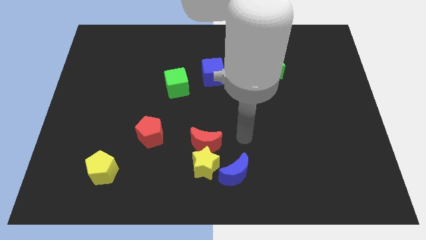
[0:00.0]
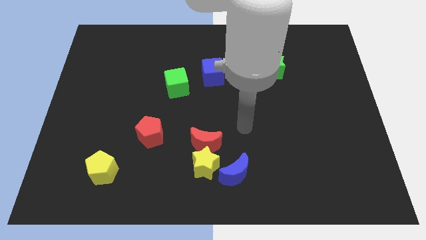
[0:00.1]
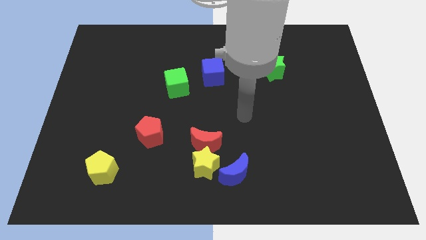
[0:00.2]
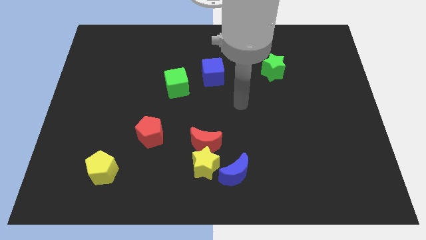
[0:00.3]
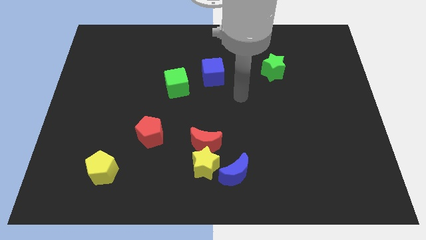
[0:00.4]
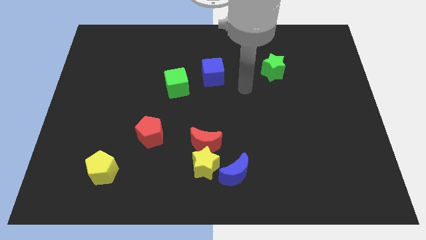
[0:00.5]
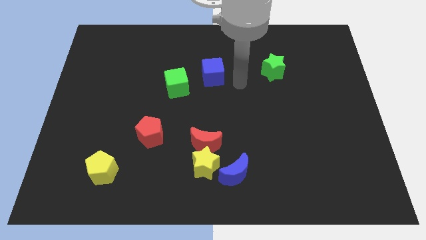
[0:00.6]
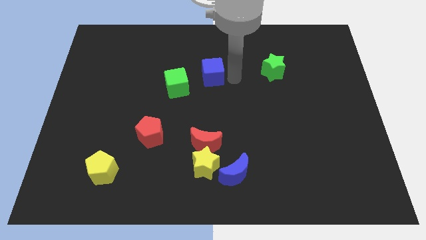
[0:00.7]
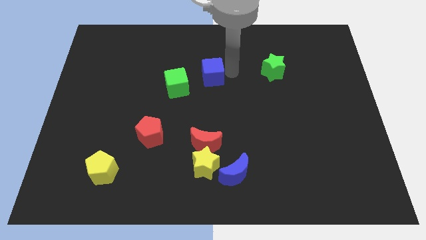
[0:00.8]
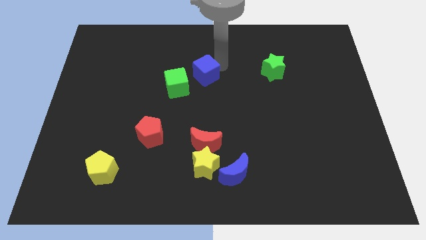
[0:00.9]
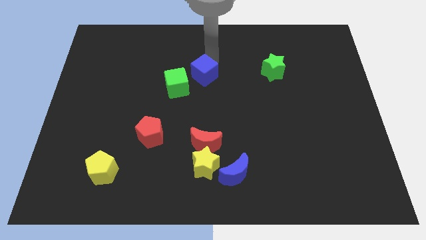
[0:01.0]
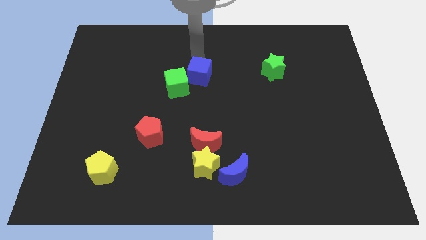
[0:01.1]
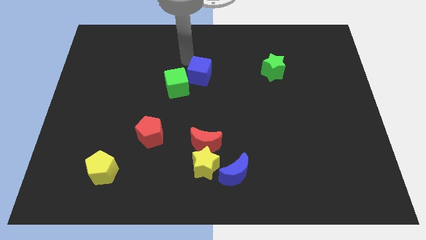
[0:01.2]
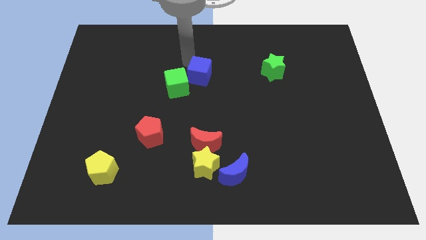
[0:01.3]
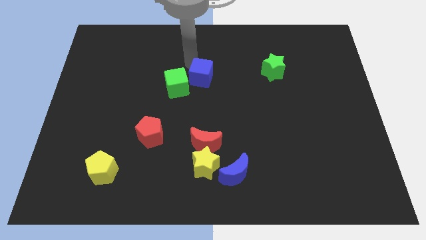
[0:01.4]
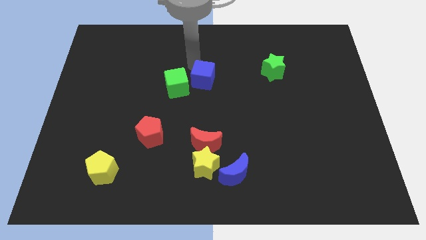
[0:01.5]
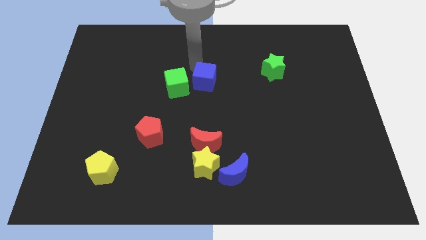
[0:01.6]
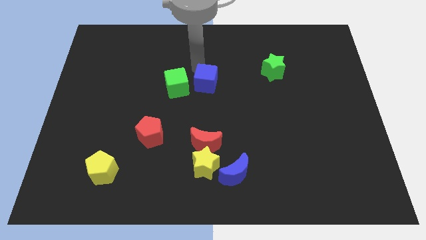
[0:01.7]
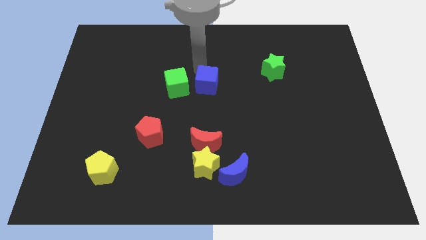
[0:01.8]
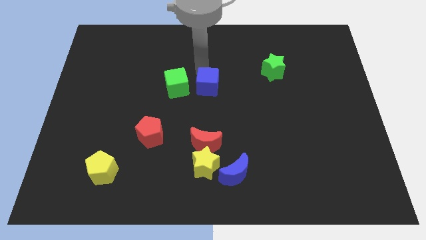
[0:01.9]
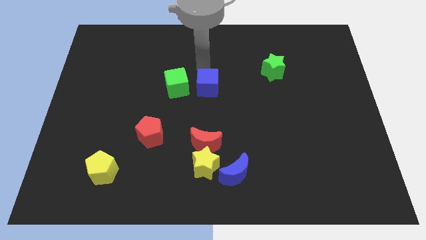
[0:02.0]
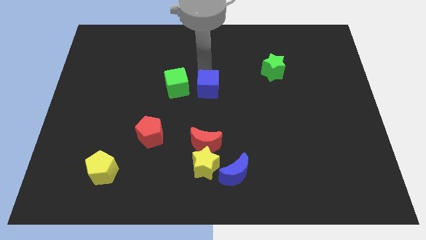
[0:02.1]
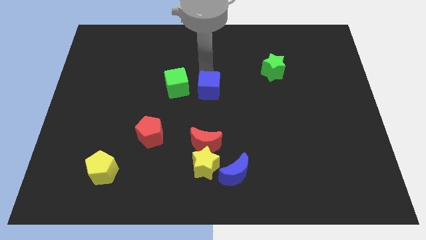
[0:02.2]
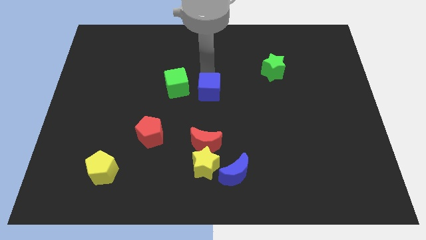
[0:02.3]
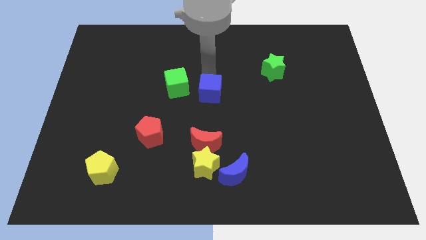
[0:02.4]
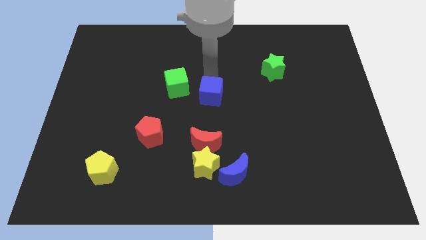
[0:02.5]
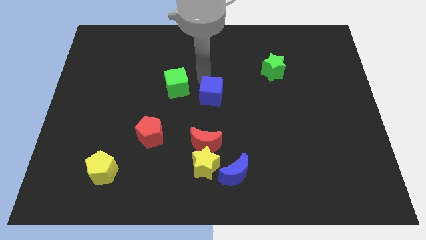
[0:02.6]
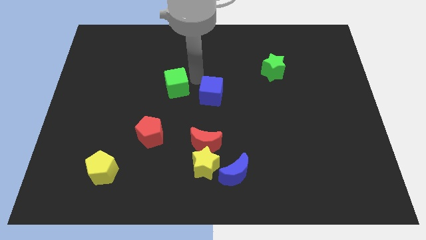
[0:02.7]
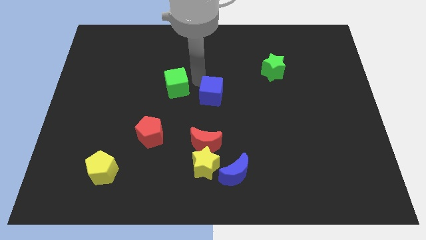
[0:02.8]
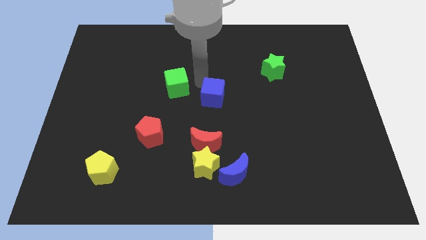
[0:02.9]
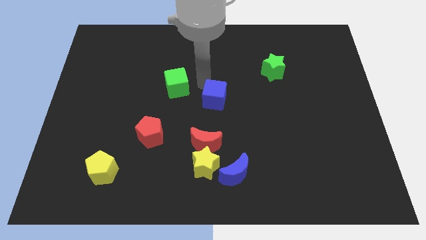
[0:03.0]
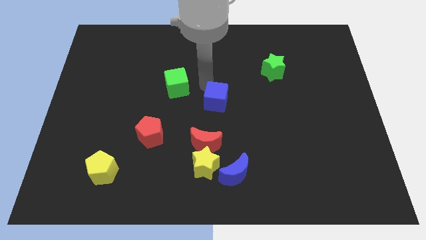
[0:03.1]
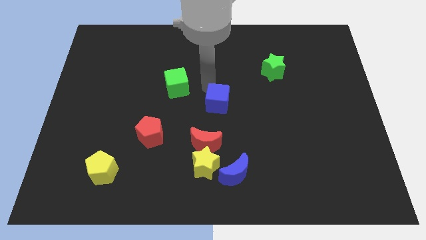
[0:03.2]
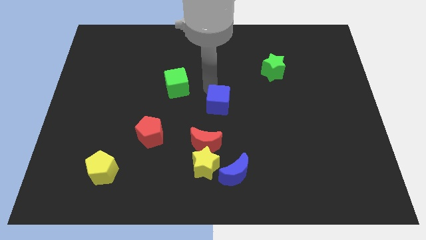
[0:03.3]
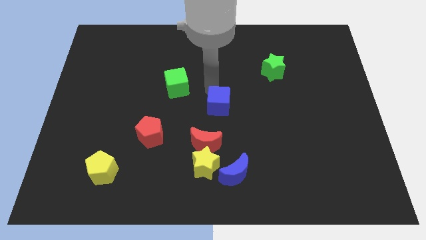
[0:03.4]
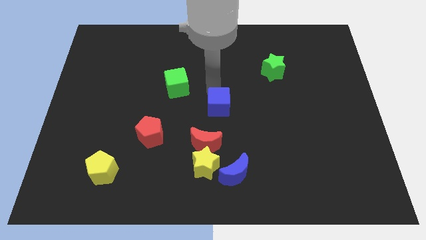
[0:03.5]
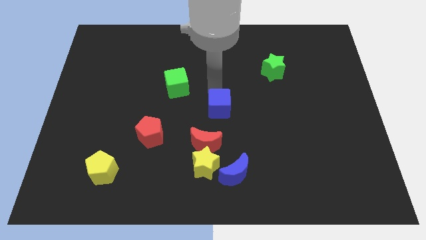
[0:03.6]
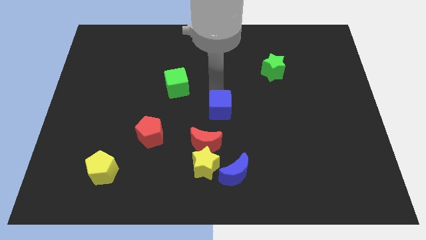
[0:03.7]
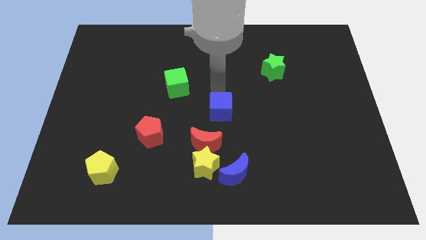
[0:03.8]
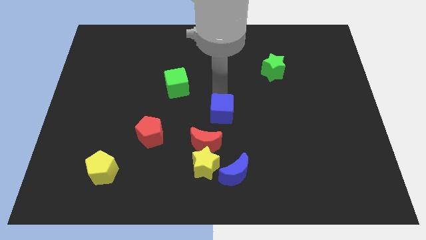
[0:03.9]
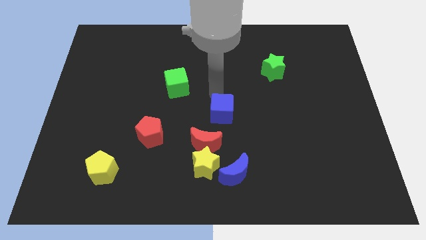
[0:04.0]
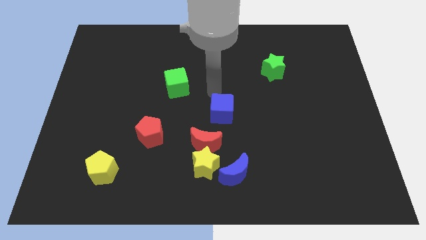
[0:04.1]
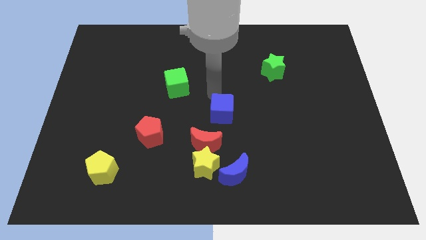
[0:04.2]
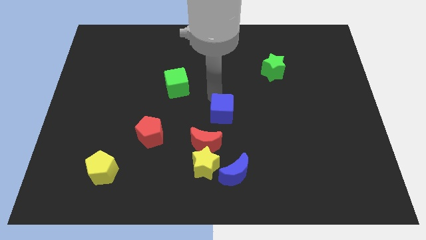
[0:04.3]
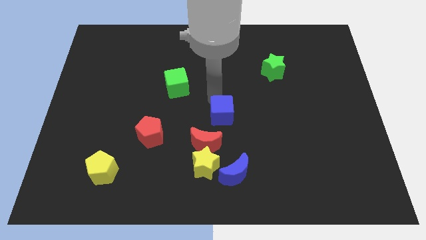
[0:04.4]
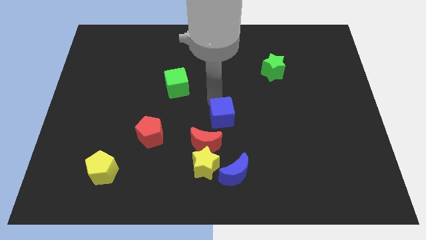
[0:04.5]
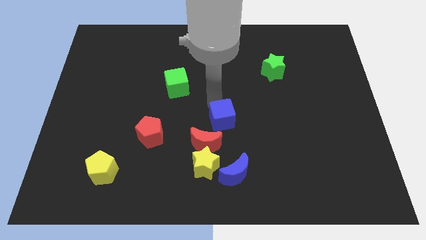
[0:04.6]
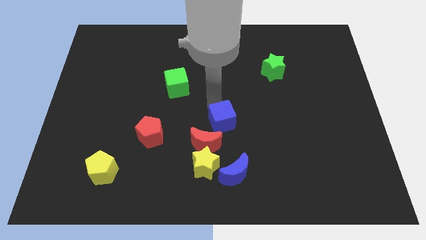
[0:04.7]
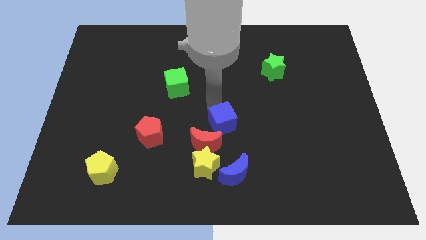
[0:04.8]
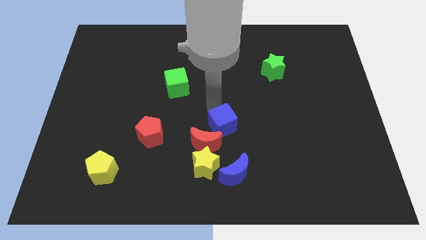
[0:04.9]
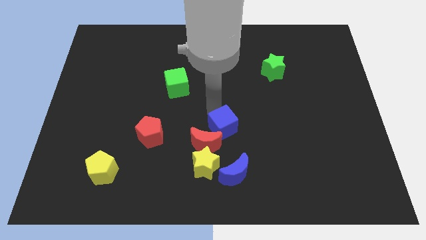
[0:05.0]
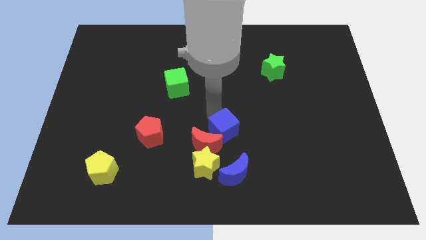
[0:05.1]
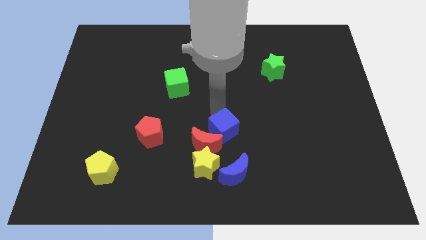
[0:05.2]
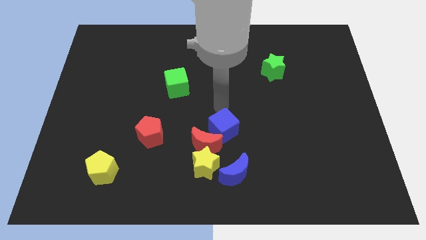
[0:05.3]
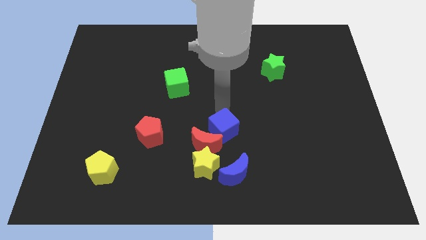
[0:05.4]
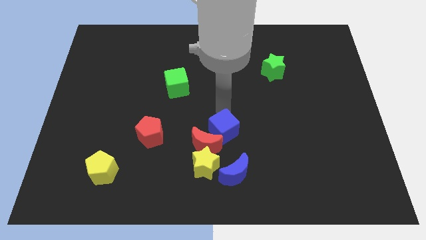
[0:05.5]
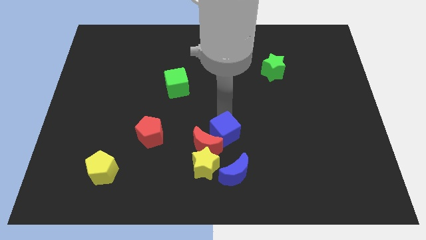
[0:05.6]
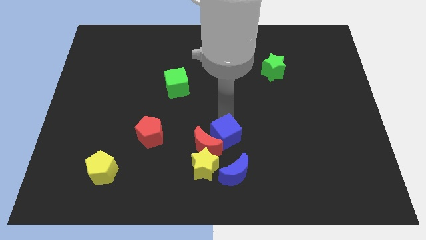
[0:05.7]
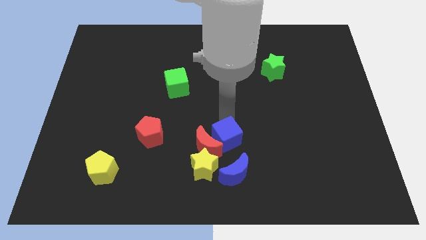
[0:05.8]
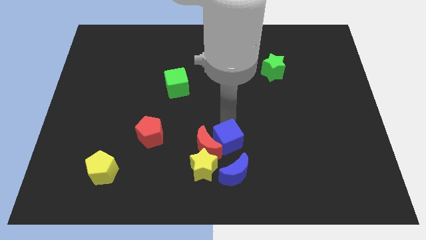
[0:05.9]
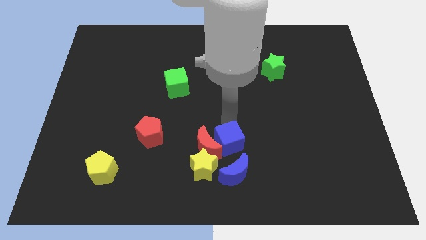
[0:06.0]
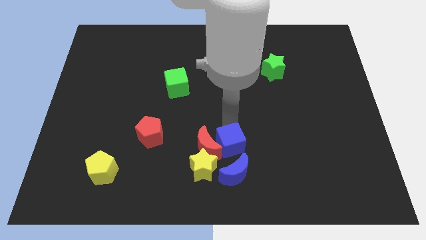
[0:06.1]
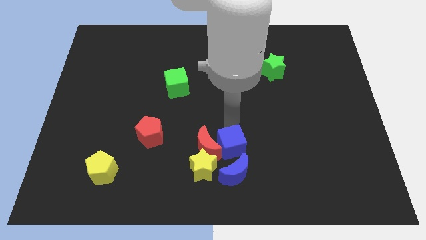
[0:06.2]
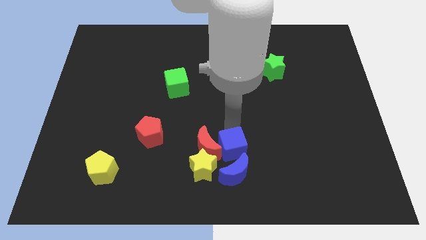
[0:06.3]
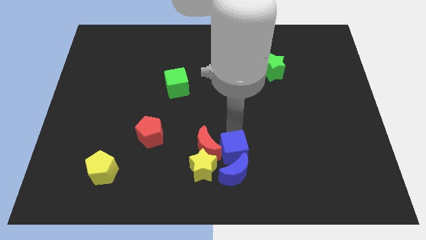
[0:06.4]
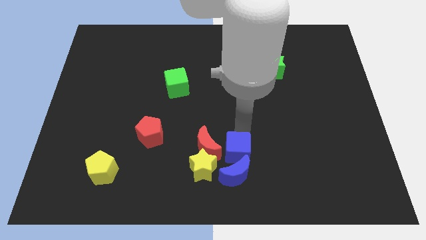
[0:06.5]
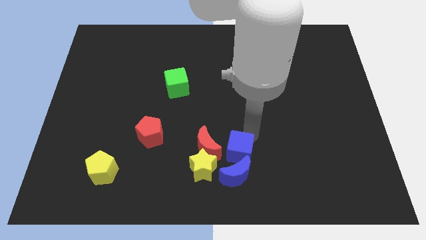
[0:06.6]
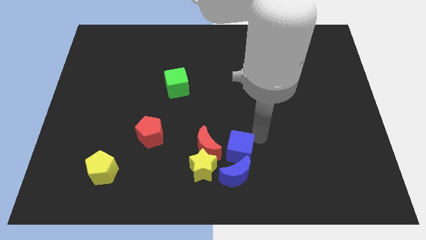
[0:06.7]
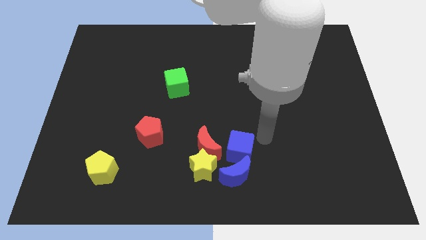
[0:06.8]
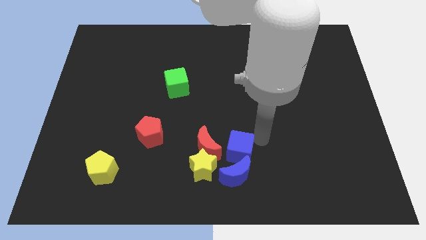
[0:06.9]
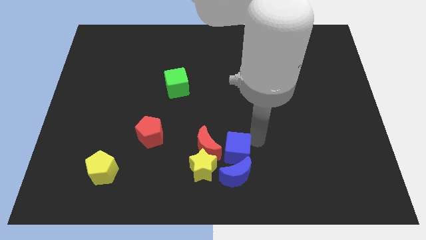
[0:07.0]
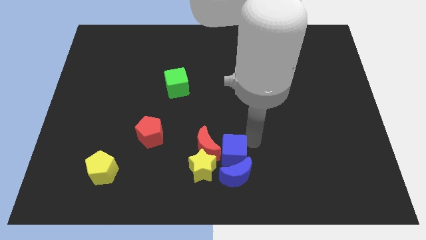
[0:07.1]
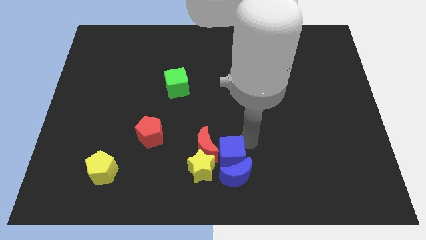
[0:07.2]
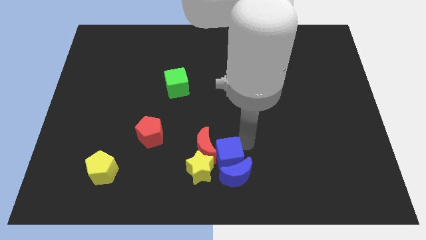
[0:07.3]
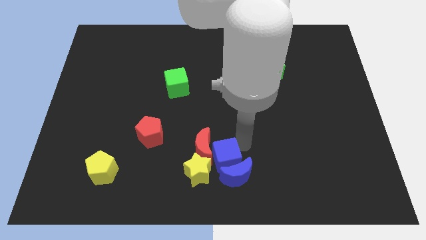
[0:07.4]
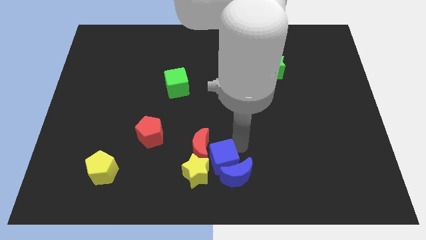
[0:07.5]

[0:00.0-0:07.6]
put the blue cube towards the yellow star
